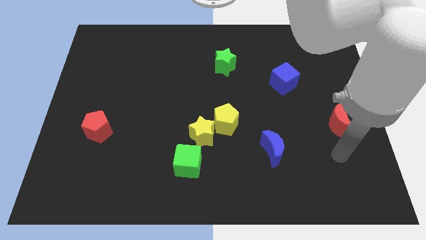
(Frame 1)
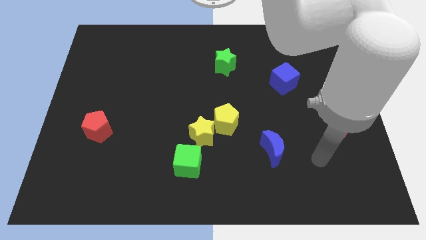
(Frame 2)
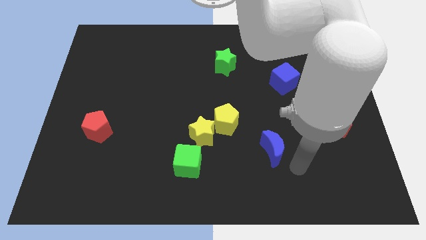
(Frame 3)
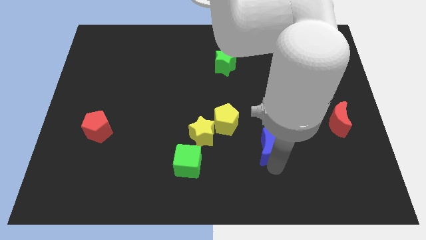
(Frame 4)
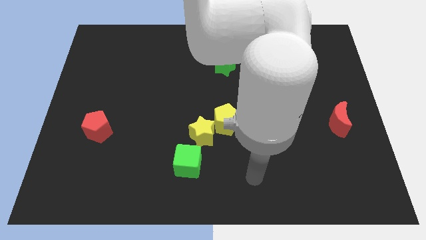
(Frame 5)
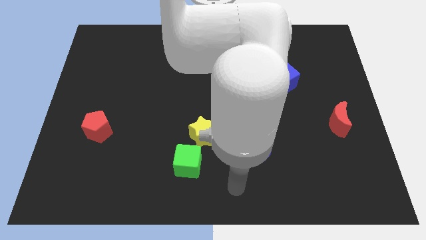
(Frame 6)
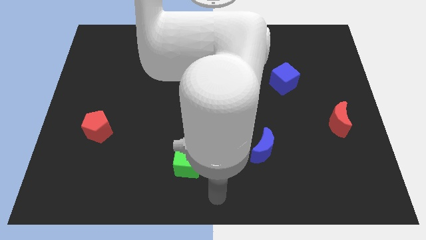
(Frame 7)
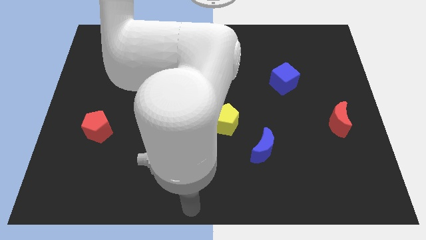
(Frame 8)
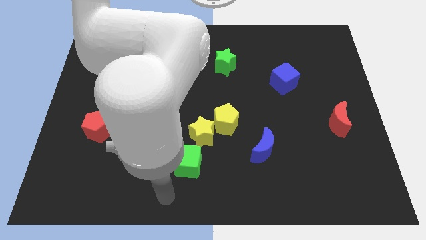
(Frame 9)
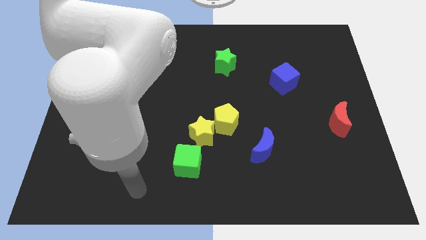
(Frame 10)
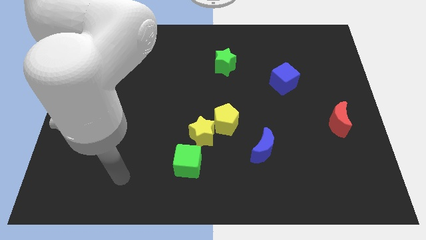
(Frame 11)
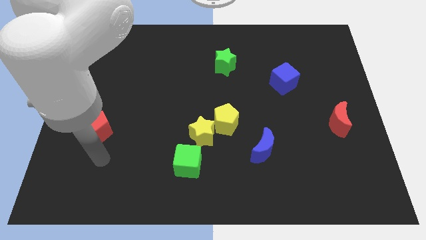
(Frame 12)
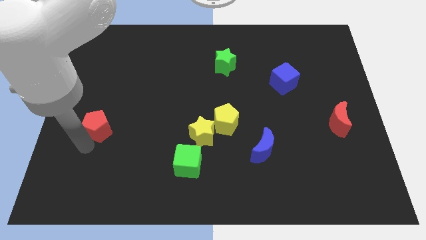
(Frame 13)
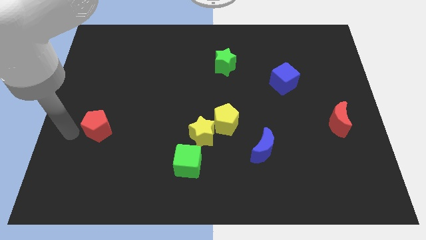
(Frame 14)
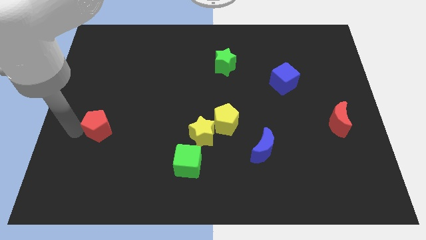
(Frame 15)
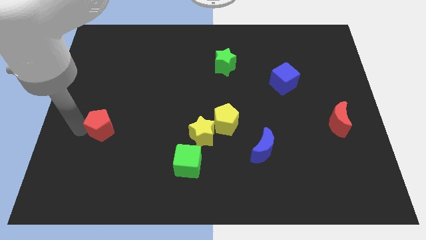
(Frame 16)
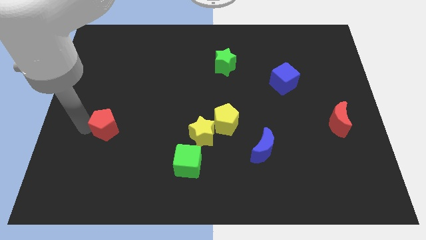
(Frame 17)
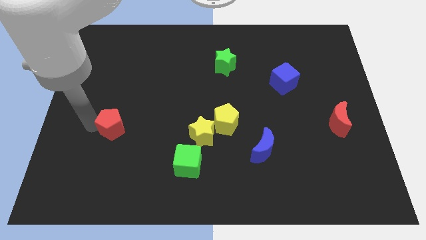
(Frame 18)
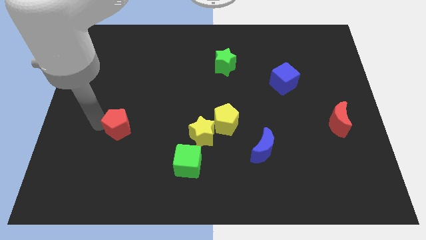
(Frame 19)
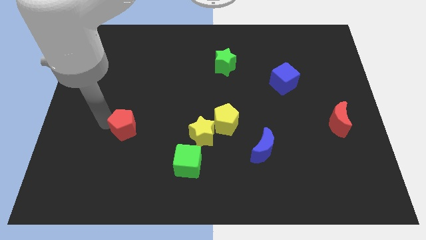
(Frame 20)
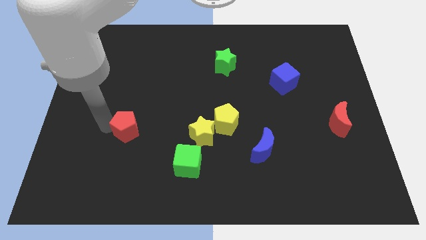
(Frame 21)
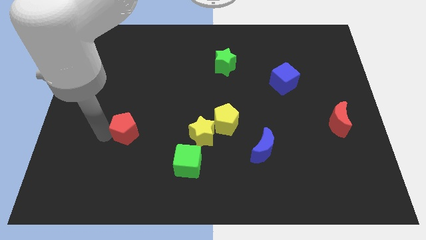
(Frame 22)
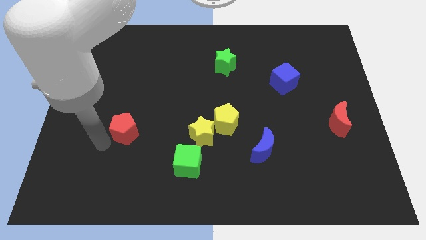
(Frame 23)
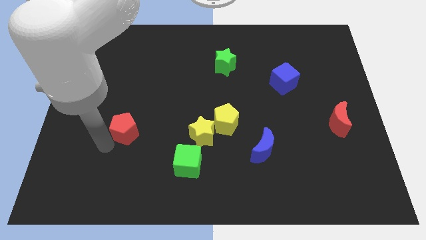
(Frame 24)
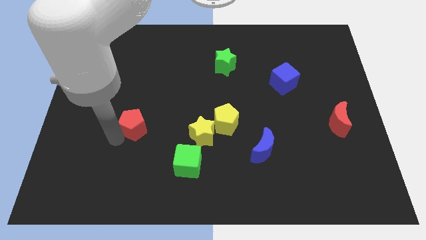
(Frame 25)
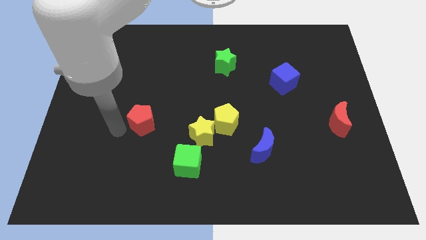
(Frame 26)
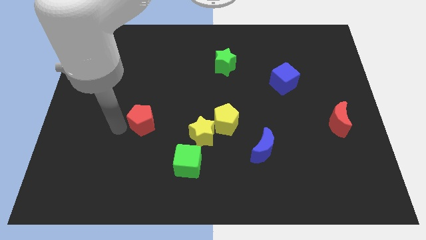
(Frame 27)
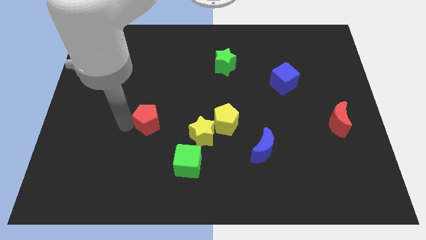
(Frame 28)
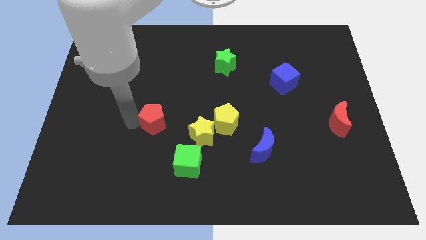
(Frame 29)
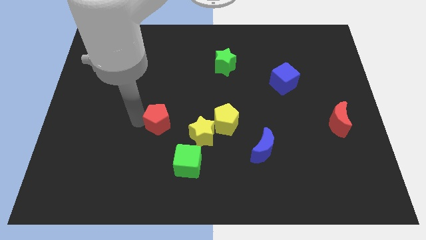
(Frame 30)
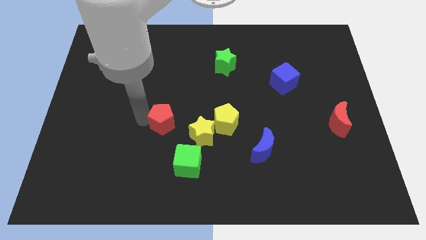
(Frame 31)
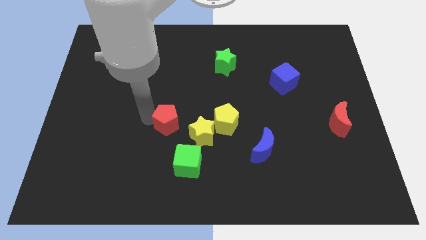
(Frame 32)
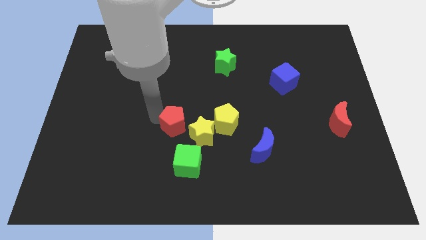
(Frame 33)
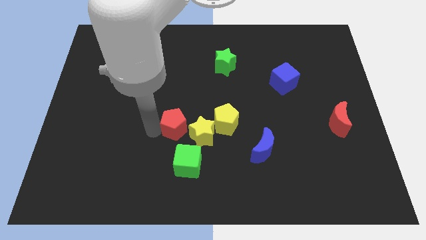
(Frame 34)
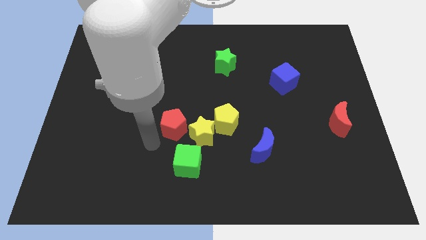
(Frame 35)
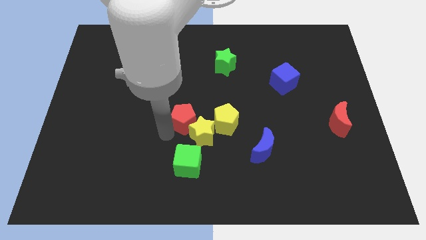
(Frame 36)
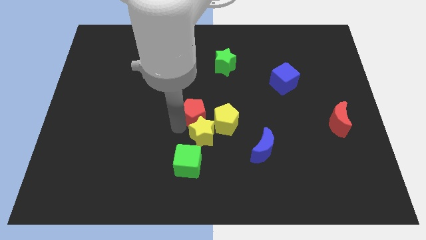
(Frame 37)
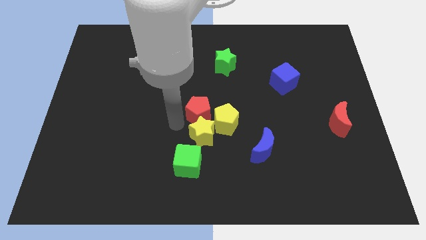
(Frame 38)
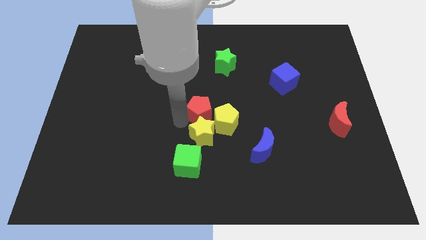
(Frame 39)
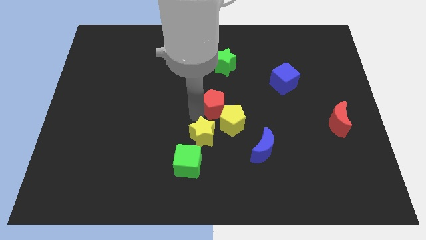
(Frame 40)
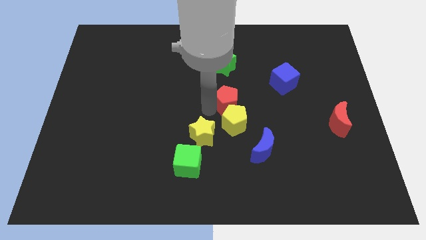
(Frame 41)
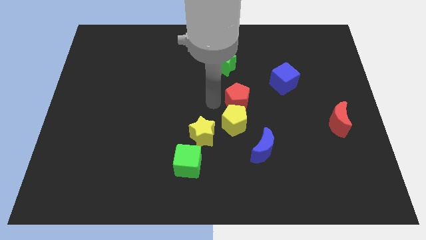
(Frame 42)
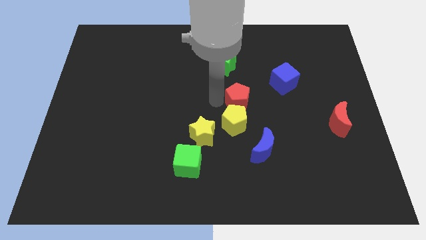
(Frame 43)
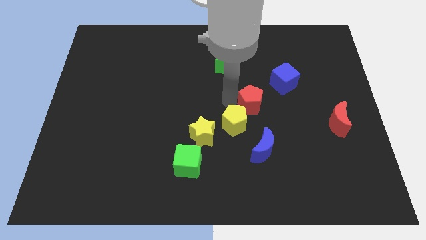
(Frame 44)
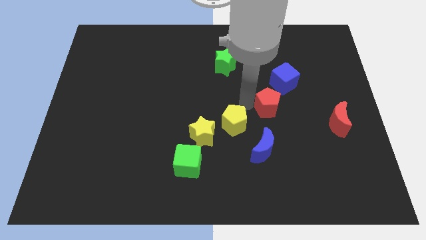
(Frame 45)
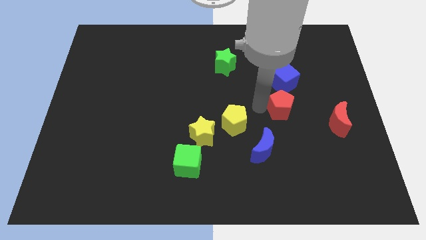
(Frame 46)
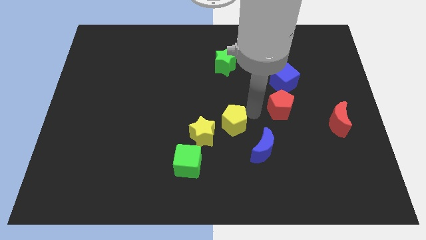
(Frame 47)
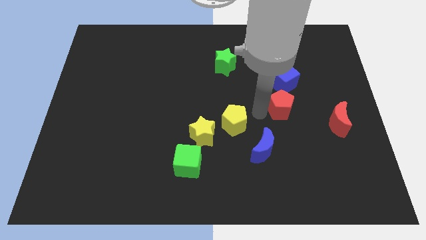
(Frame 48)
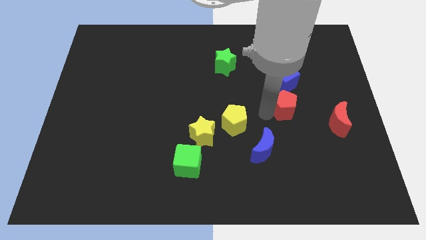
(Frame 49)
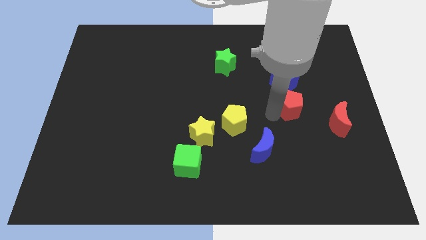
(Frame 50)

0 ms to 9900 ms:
put the red pentagon diagonally up and to the left of the red moon

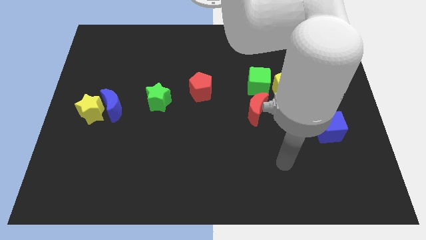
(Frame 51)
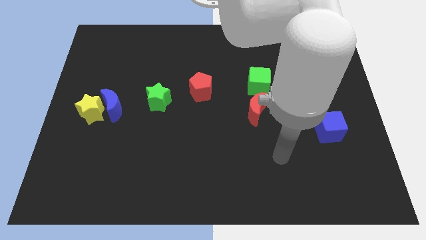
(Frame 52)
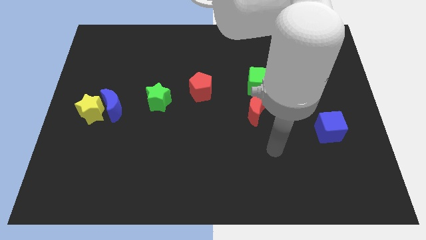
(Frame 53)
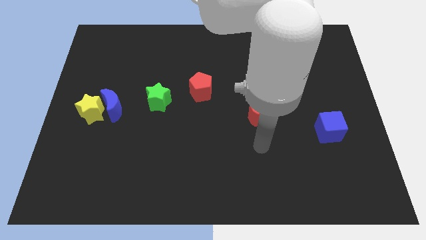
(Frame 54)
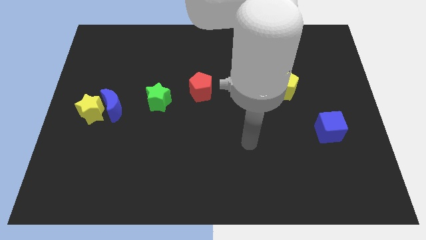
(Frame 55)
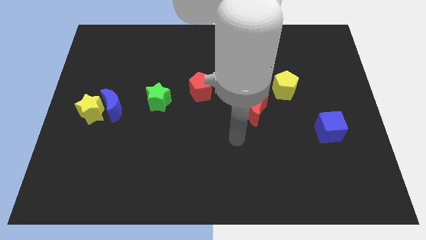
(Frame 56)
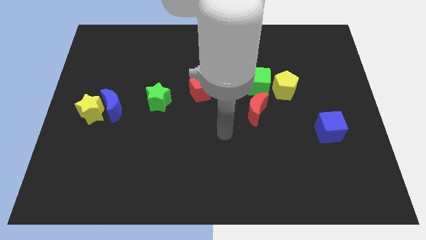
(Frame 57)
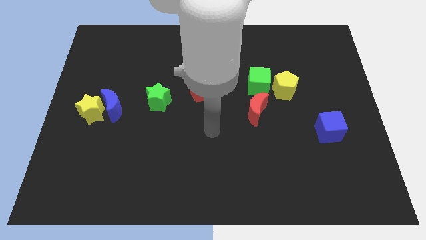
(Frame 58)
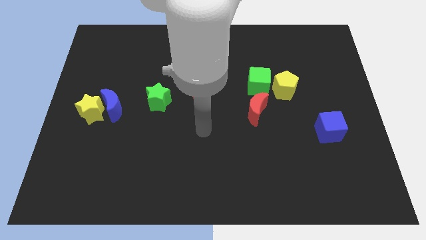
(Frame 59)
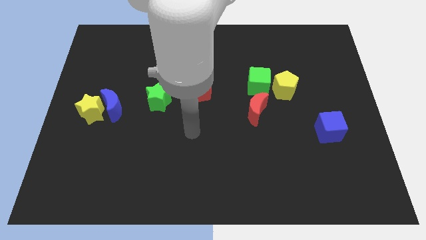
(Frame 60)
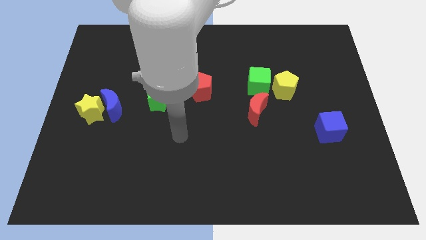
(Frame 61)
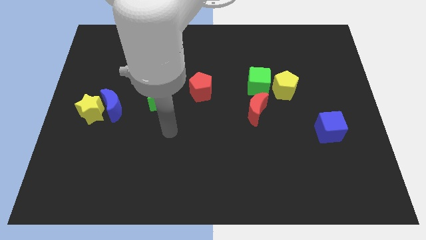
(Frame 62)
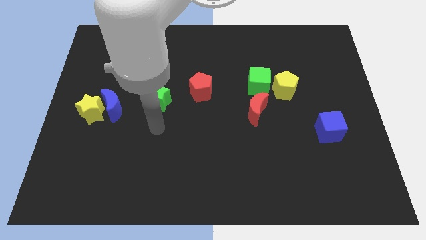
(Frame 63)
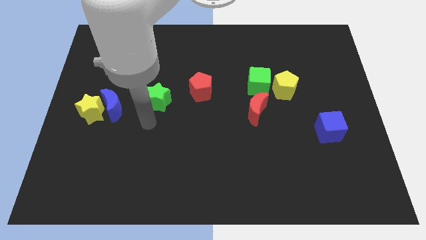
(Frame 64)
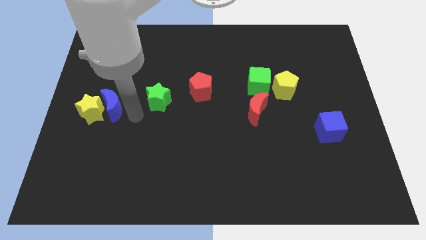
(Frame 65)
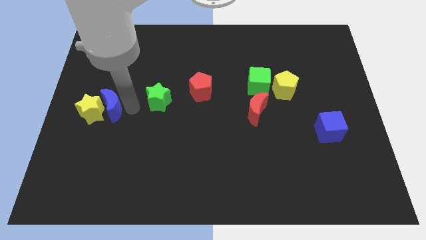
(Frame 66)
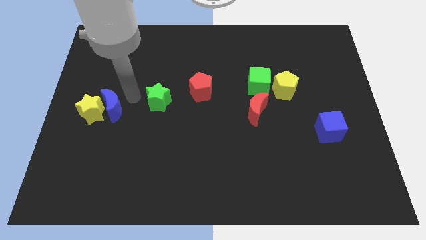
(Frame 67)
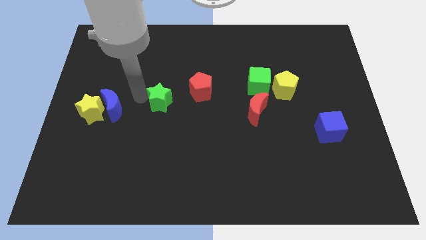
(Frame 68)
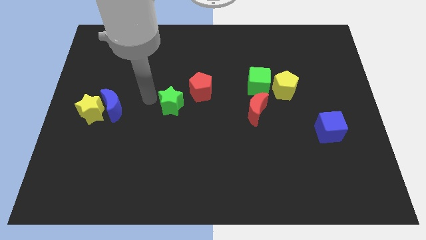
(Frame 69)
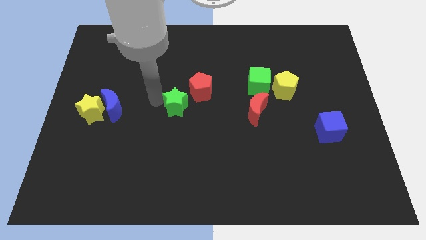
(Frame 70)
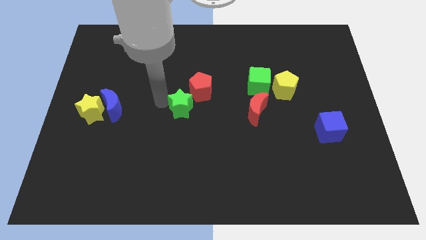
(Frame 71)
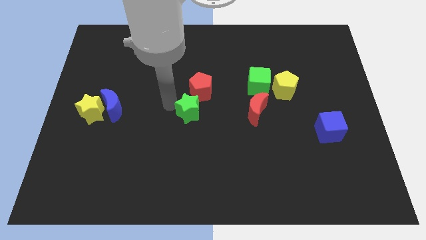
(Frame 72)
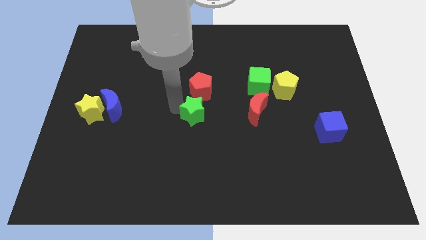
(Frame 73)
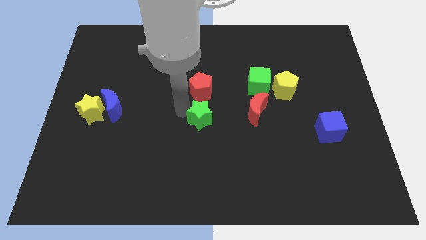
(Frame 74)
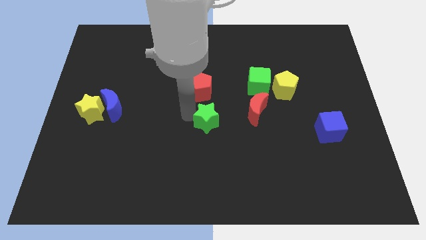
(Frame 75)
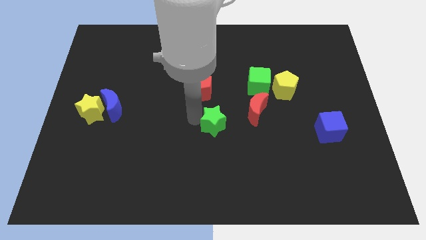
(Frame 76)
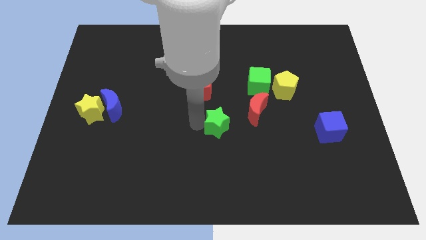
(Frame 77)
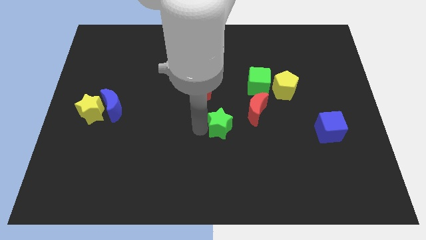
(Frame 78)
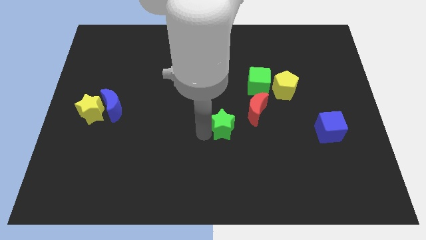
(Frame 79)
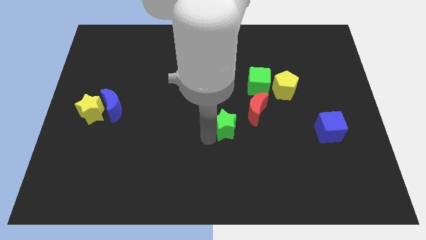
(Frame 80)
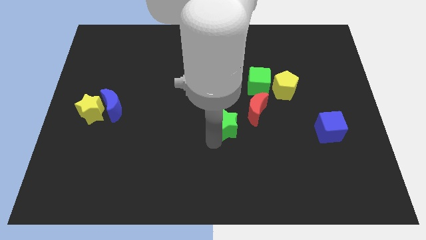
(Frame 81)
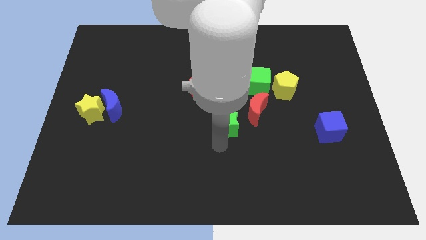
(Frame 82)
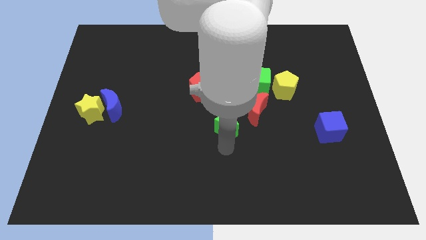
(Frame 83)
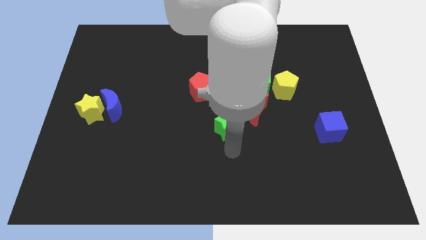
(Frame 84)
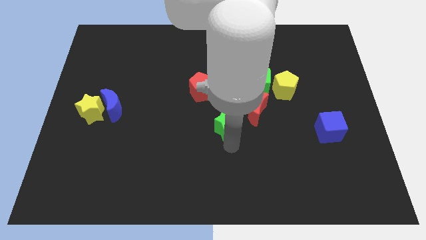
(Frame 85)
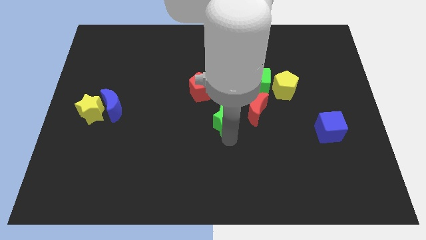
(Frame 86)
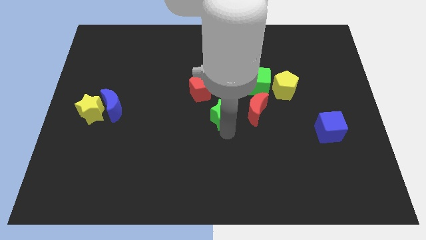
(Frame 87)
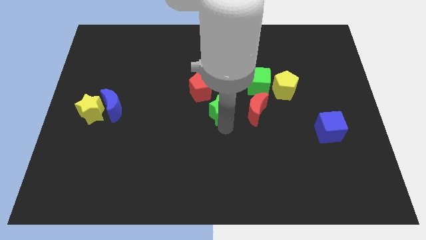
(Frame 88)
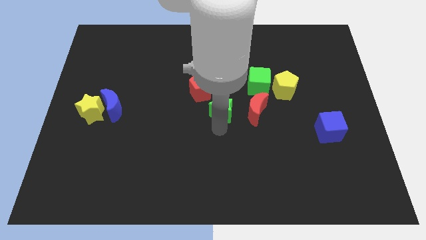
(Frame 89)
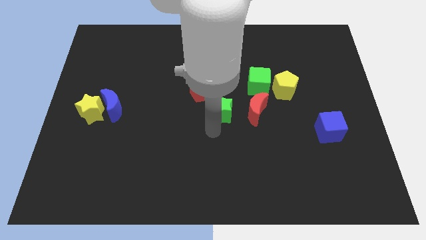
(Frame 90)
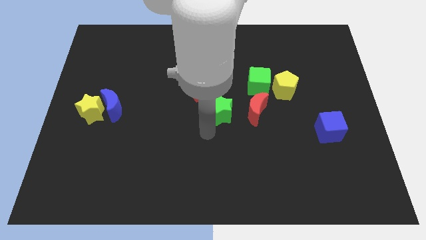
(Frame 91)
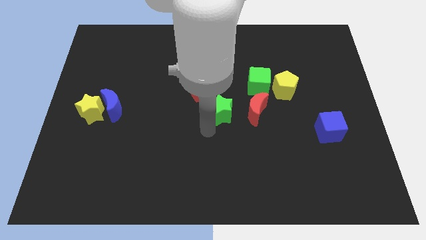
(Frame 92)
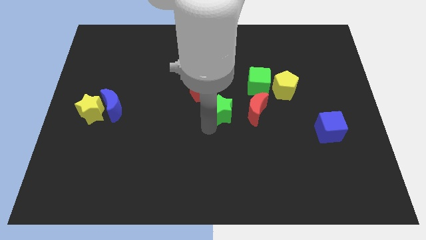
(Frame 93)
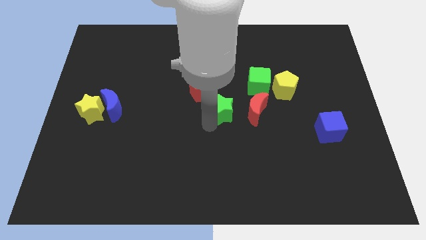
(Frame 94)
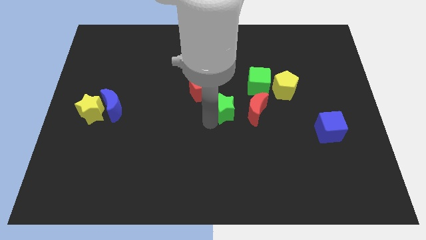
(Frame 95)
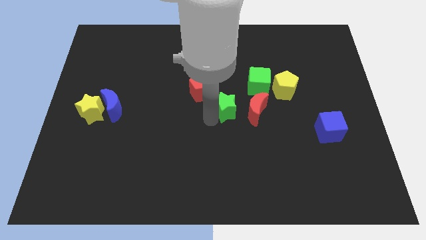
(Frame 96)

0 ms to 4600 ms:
push the green star diagonally up and to the left of the red moon
